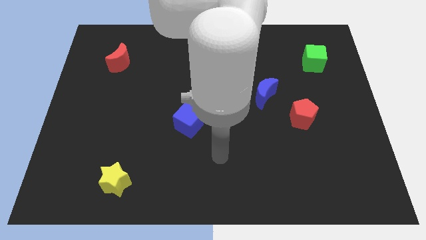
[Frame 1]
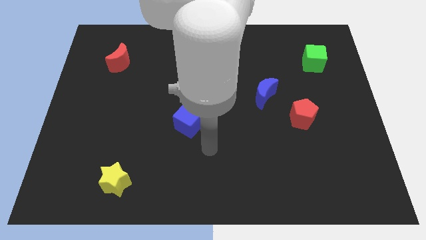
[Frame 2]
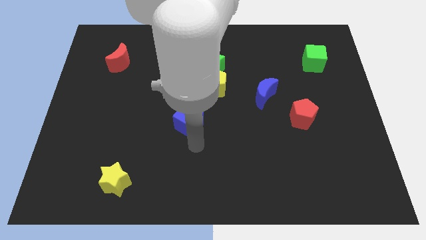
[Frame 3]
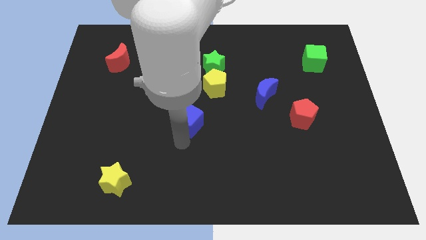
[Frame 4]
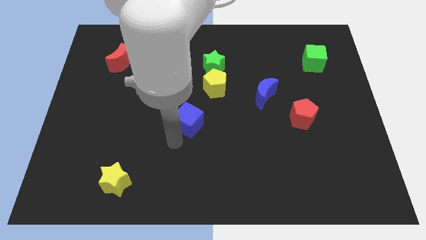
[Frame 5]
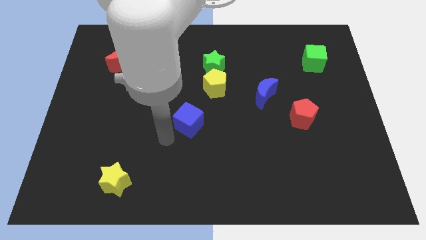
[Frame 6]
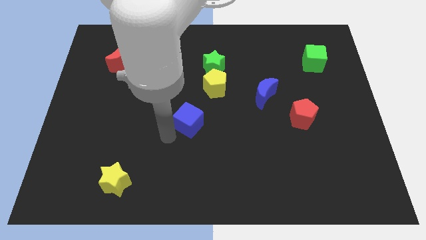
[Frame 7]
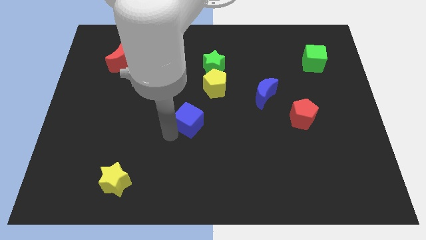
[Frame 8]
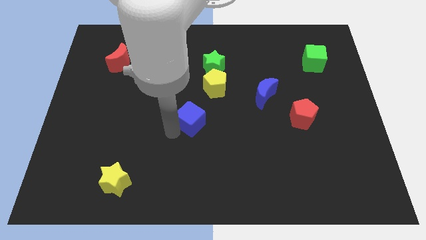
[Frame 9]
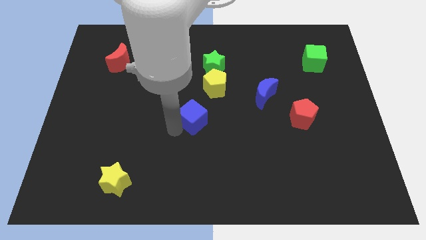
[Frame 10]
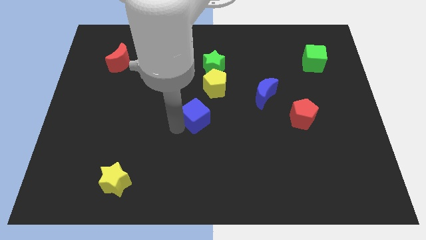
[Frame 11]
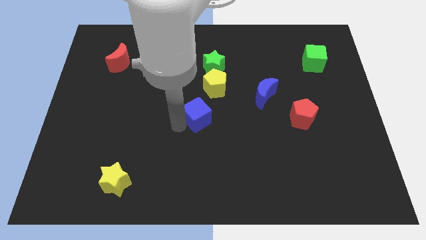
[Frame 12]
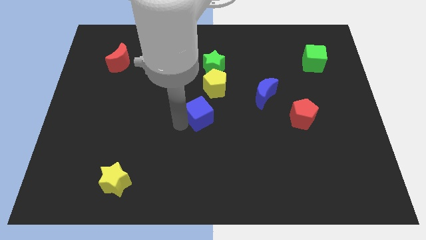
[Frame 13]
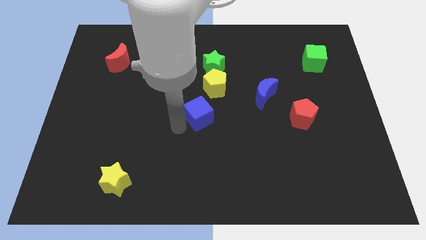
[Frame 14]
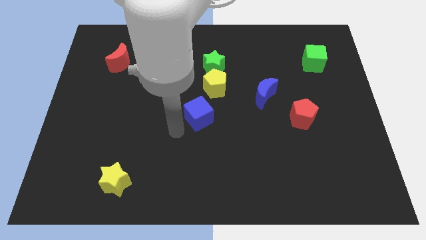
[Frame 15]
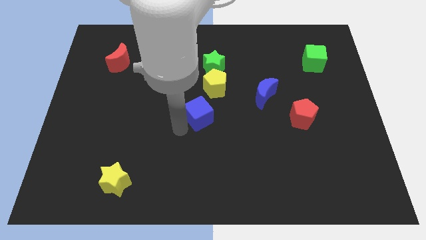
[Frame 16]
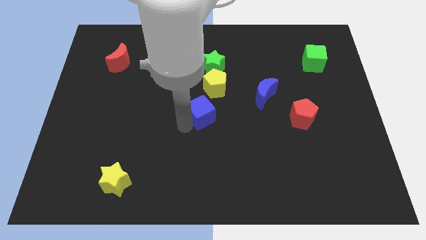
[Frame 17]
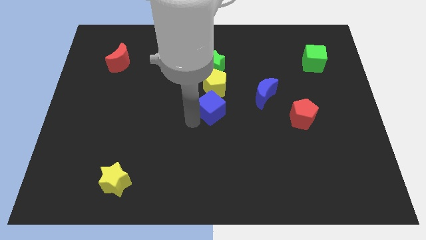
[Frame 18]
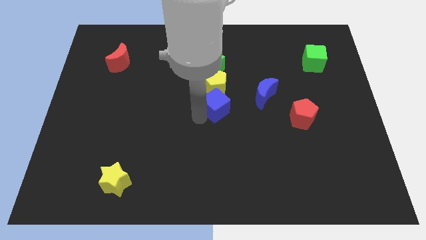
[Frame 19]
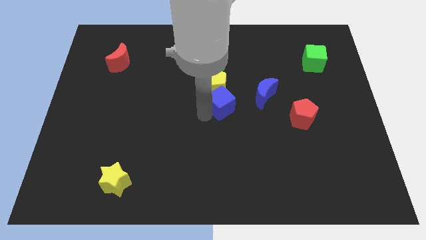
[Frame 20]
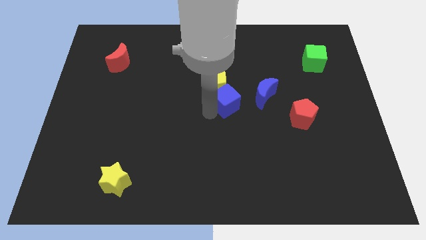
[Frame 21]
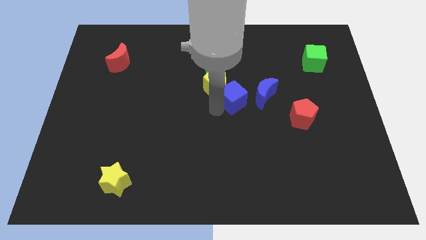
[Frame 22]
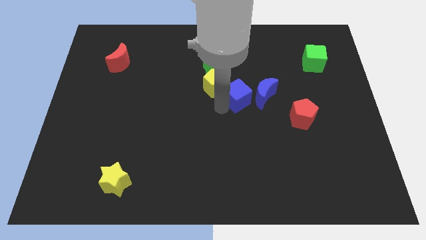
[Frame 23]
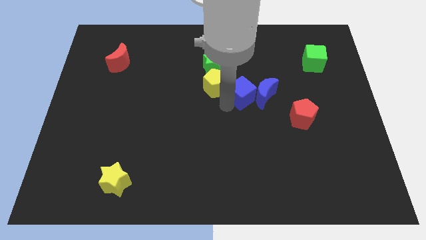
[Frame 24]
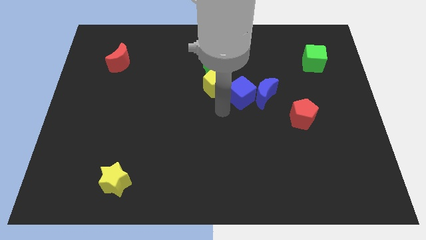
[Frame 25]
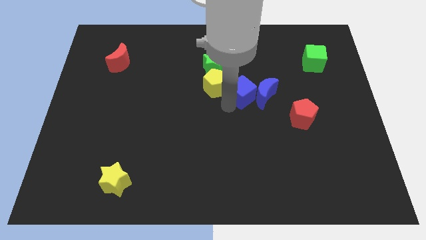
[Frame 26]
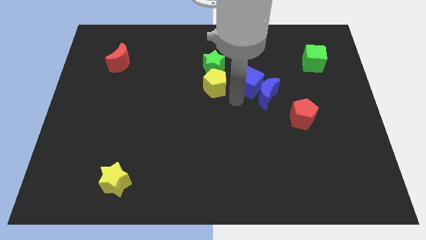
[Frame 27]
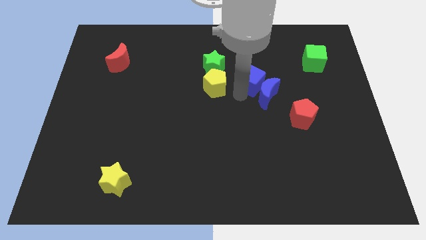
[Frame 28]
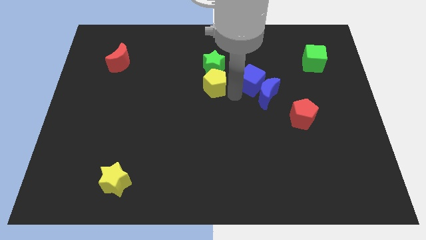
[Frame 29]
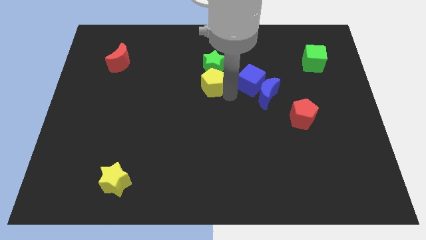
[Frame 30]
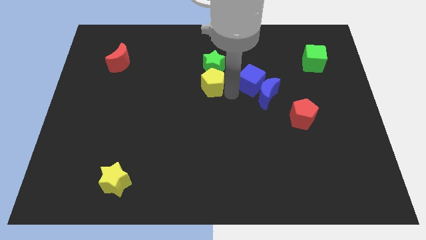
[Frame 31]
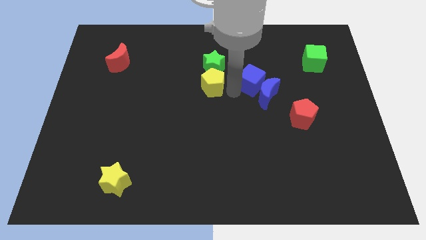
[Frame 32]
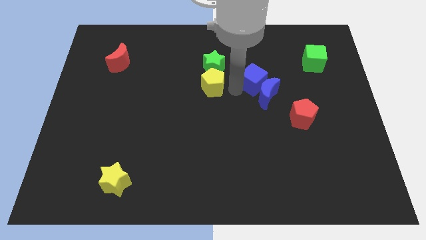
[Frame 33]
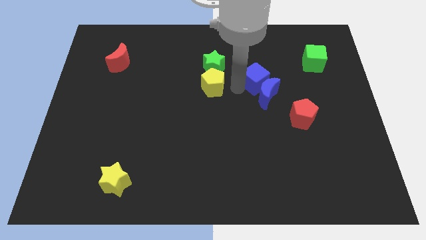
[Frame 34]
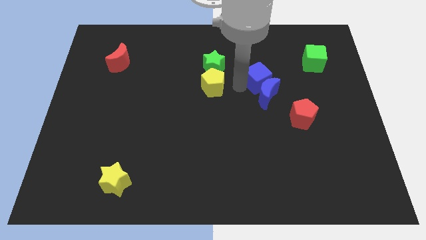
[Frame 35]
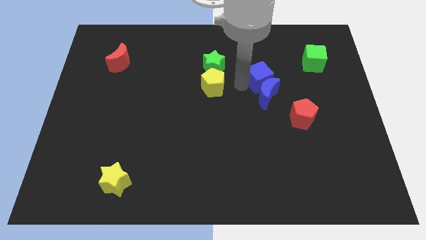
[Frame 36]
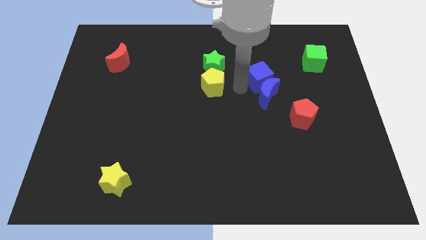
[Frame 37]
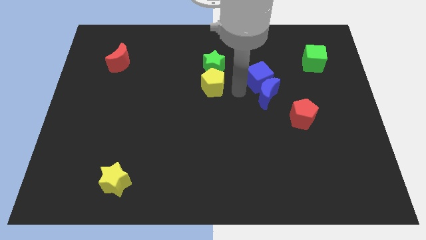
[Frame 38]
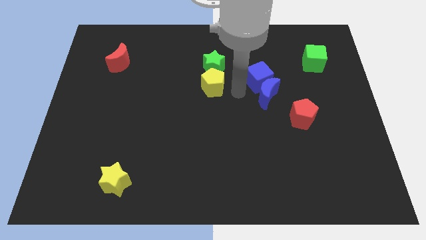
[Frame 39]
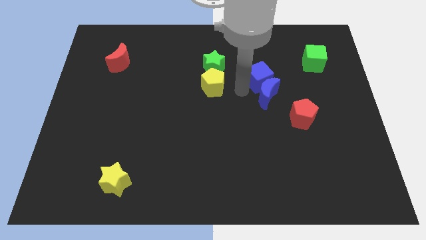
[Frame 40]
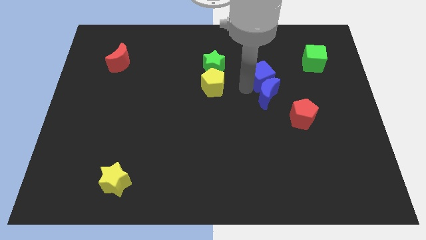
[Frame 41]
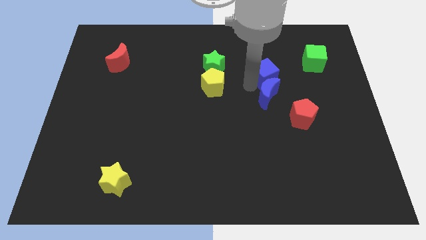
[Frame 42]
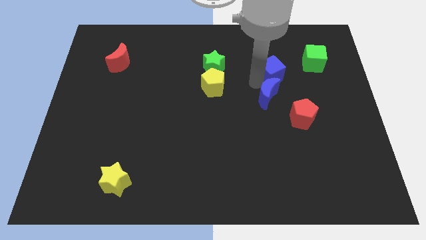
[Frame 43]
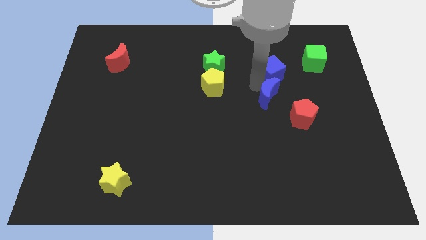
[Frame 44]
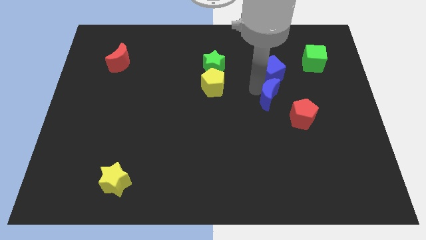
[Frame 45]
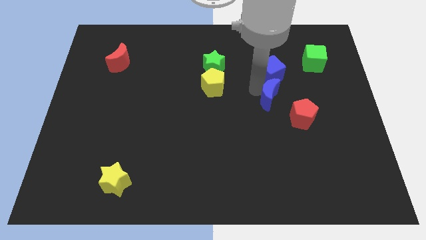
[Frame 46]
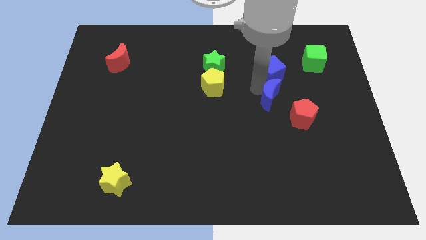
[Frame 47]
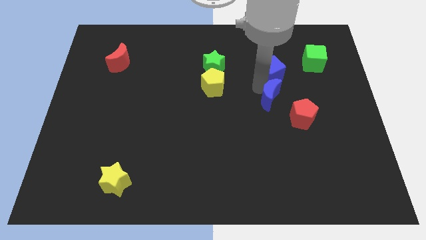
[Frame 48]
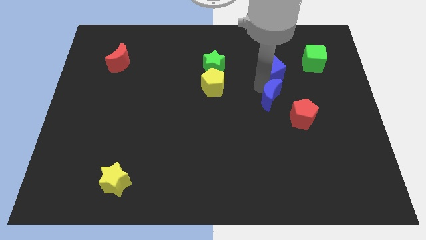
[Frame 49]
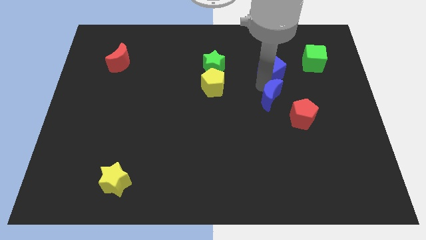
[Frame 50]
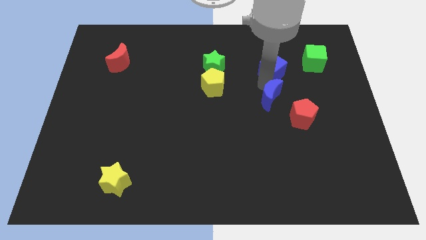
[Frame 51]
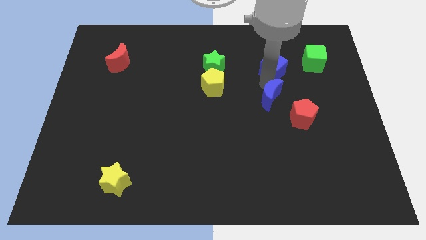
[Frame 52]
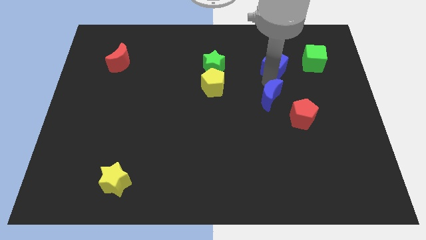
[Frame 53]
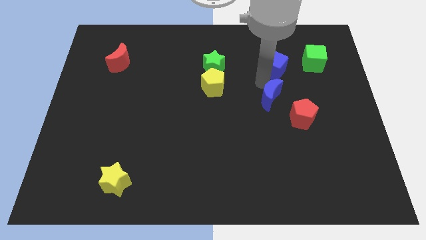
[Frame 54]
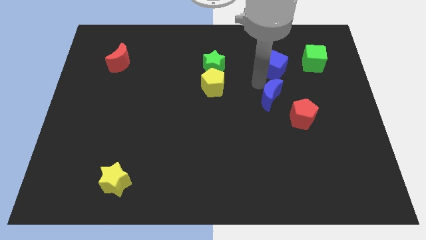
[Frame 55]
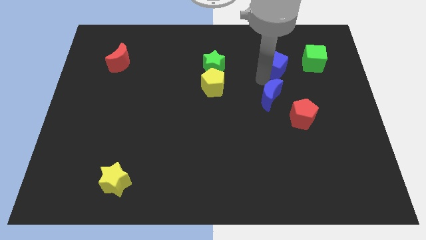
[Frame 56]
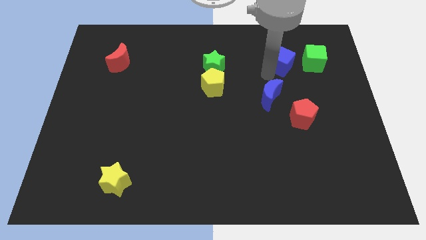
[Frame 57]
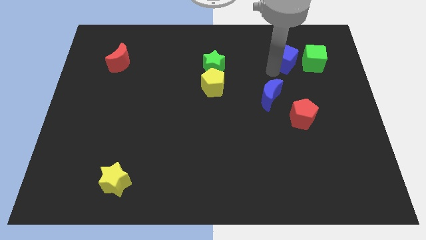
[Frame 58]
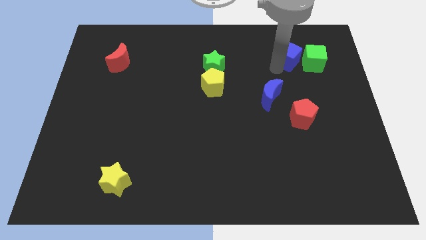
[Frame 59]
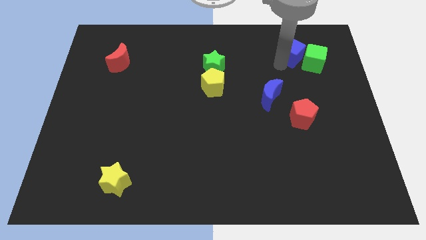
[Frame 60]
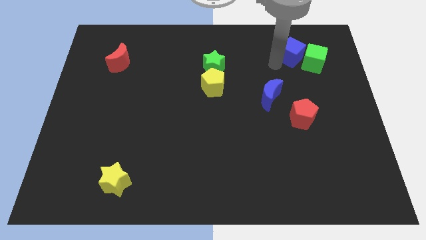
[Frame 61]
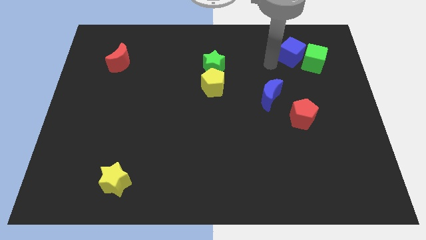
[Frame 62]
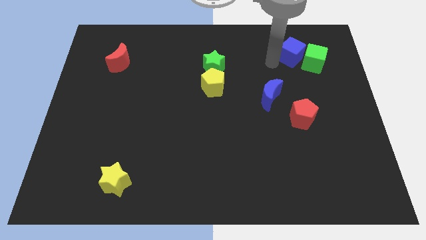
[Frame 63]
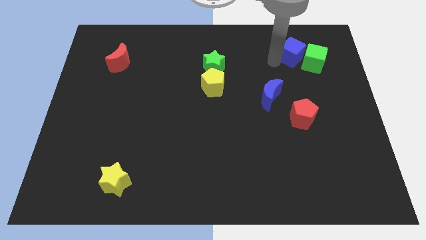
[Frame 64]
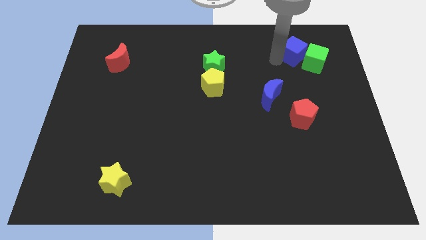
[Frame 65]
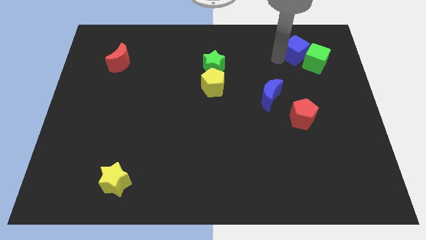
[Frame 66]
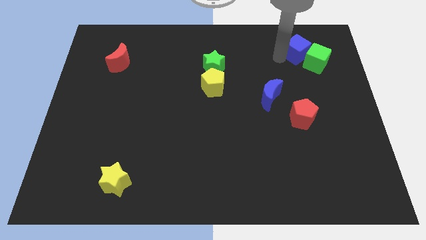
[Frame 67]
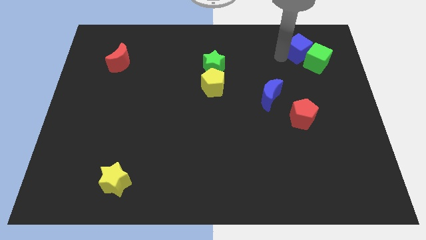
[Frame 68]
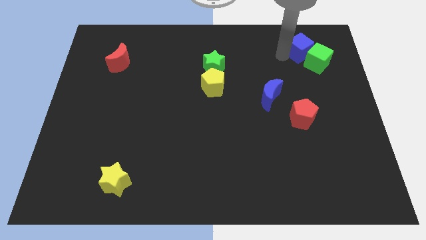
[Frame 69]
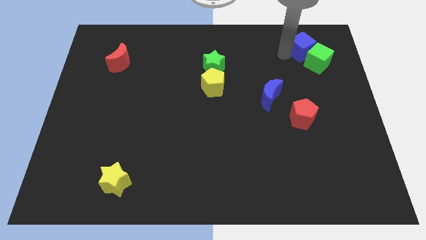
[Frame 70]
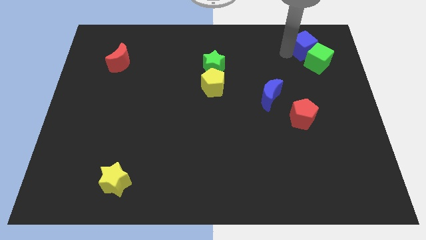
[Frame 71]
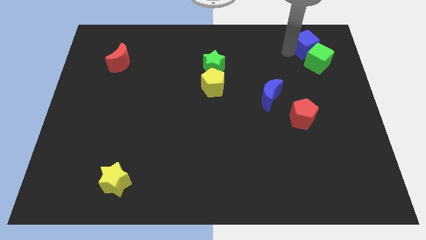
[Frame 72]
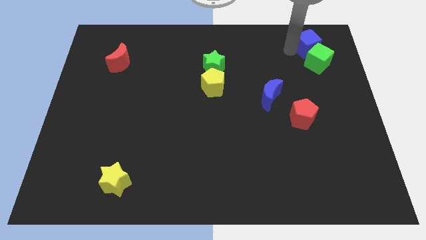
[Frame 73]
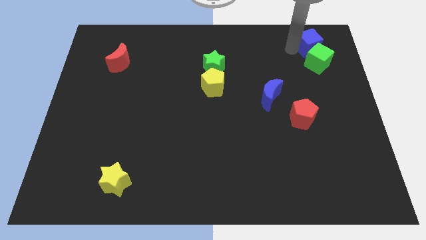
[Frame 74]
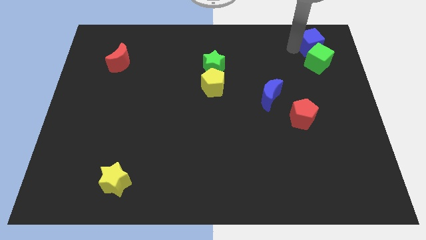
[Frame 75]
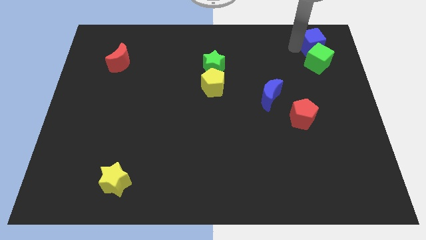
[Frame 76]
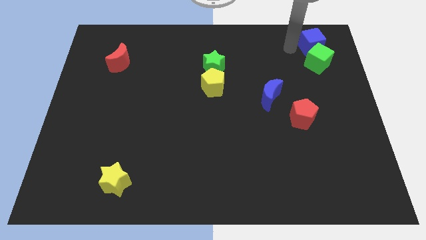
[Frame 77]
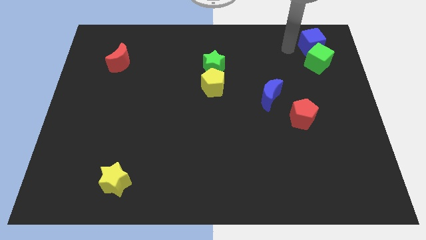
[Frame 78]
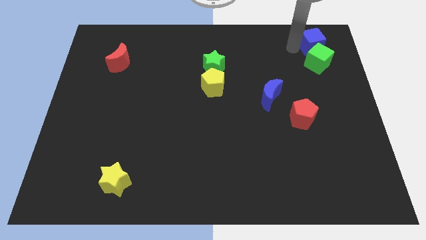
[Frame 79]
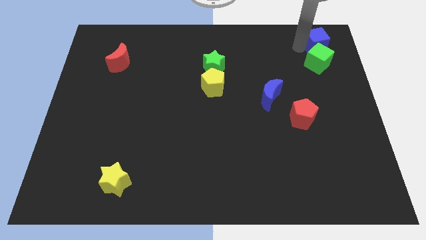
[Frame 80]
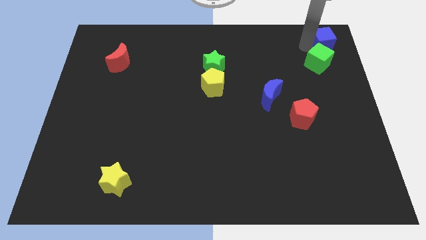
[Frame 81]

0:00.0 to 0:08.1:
push the blue cube to the top right of the board
